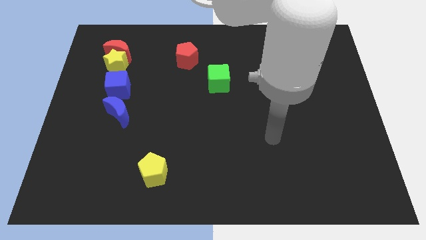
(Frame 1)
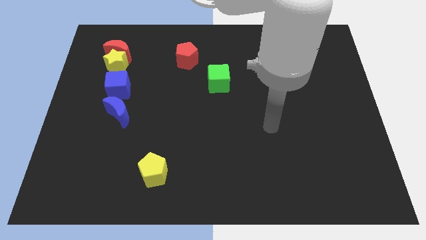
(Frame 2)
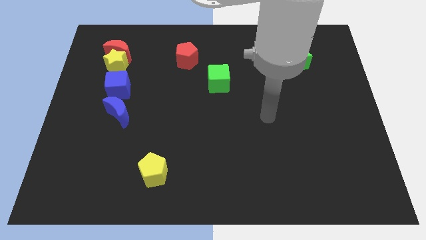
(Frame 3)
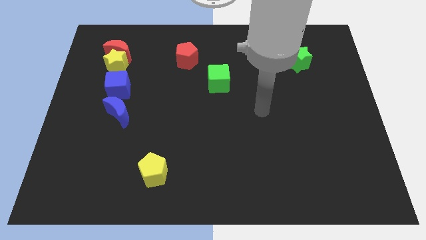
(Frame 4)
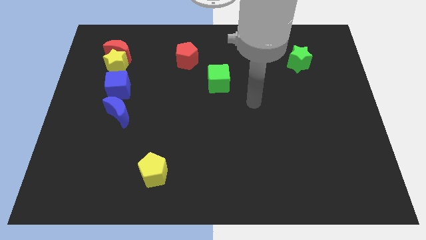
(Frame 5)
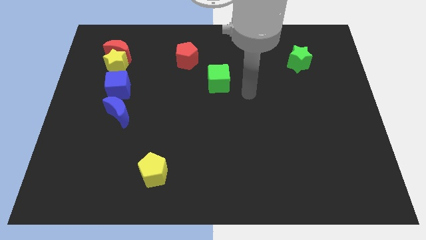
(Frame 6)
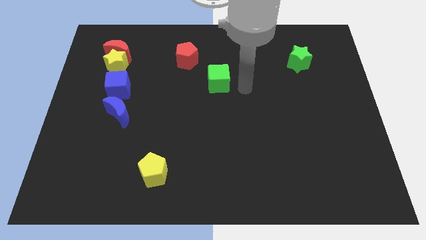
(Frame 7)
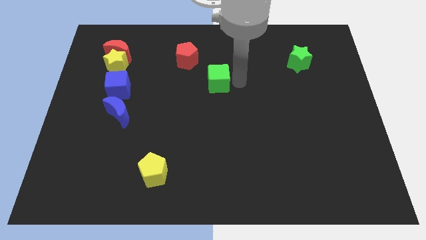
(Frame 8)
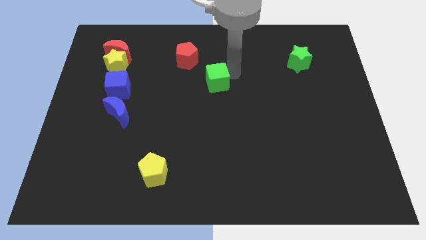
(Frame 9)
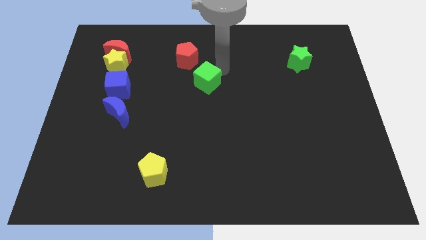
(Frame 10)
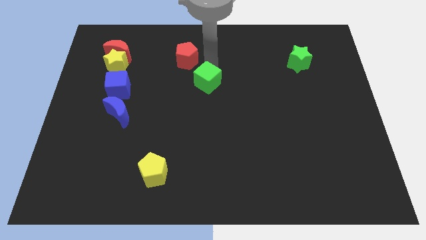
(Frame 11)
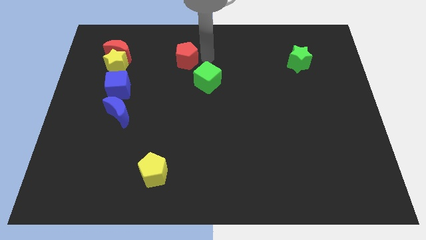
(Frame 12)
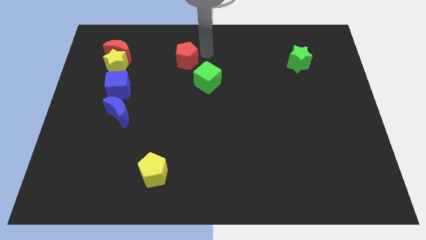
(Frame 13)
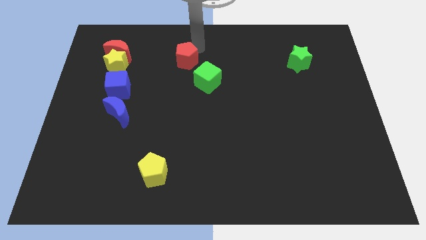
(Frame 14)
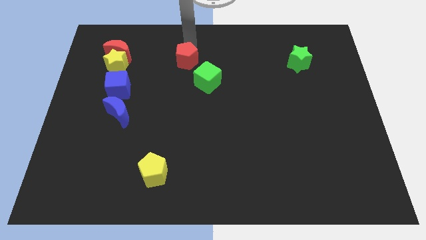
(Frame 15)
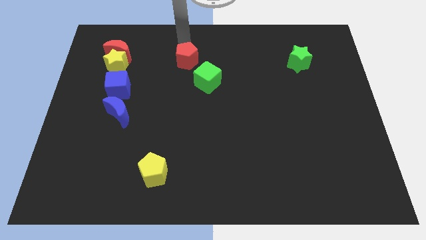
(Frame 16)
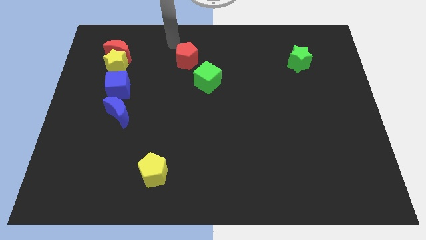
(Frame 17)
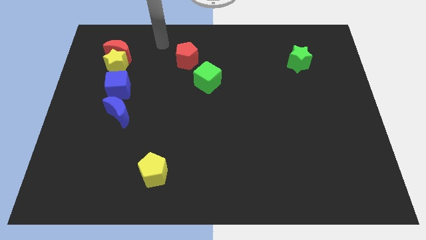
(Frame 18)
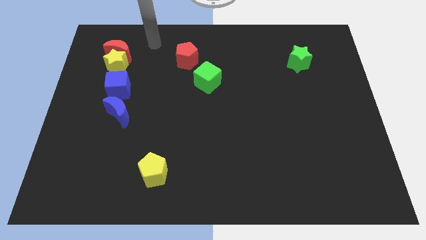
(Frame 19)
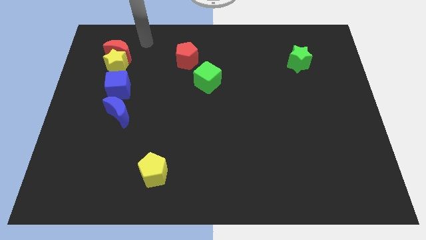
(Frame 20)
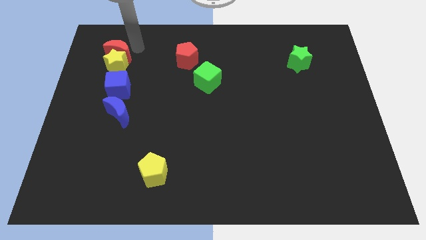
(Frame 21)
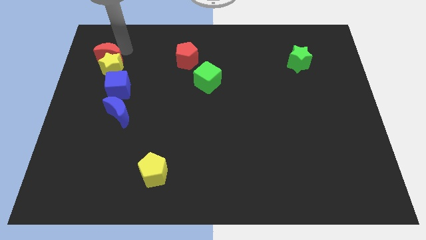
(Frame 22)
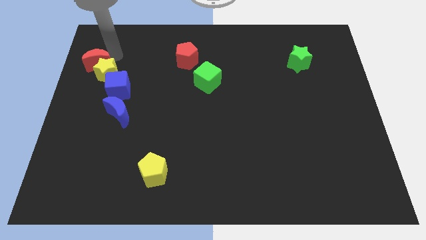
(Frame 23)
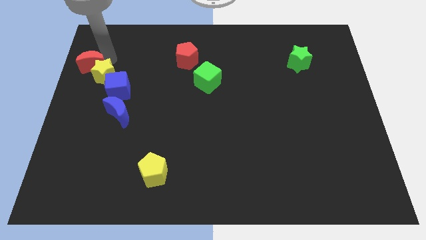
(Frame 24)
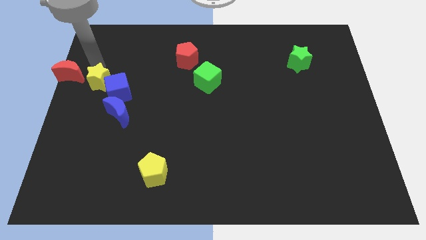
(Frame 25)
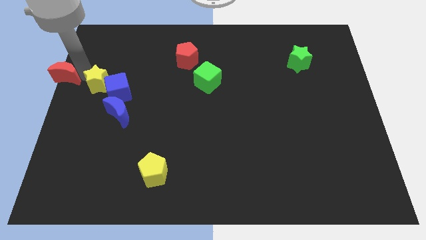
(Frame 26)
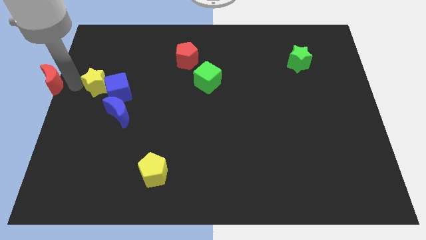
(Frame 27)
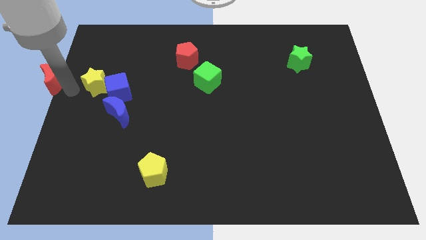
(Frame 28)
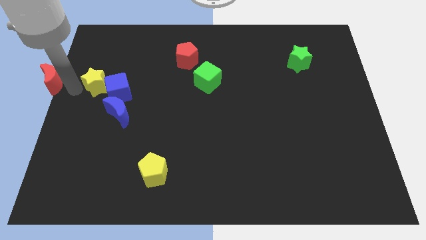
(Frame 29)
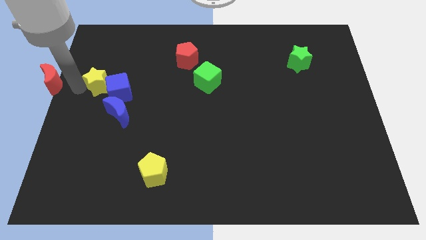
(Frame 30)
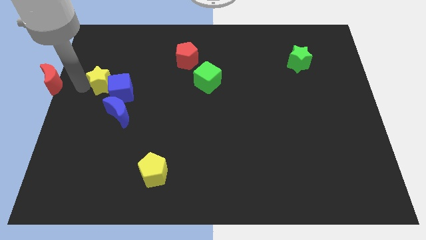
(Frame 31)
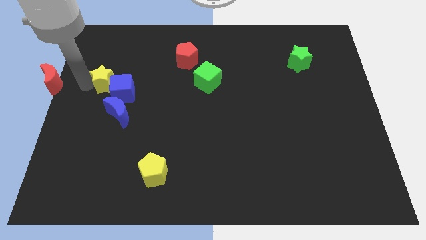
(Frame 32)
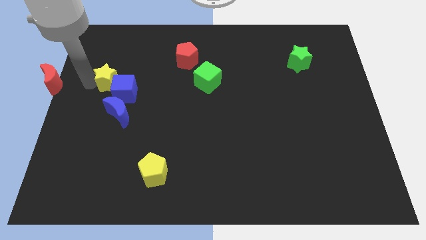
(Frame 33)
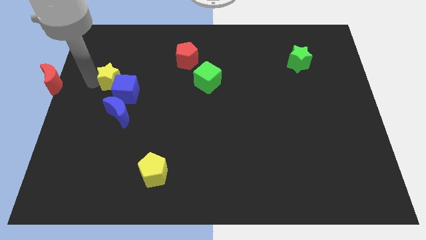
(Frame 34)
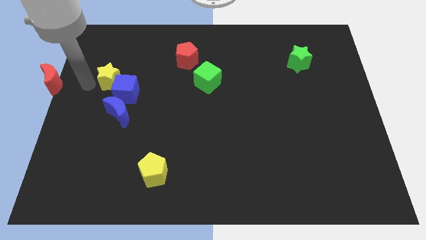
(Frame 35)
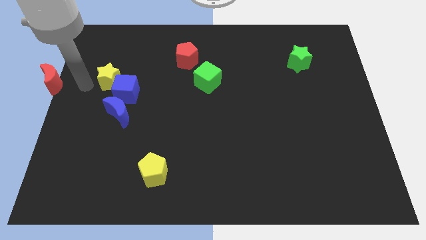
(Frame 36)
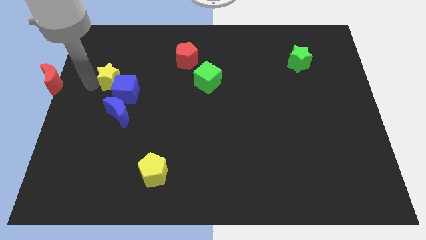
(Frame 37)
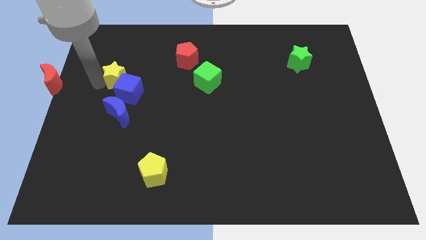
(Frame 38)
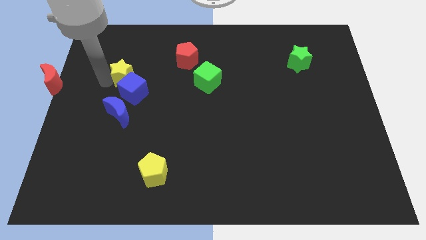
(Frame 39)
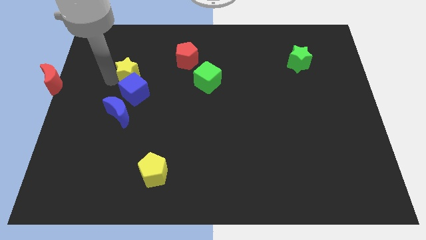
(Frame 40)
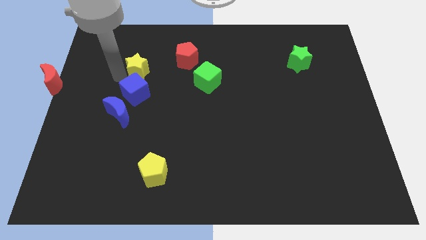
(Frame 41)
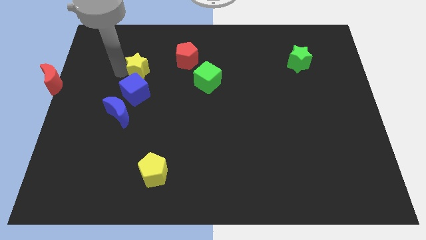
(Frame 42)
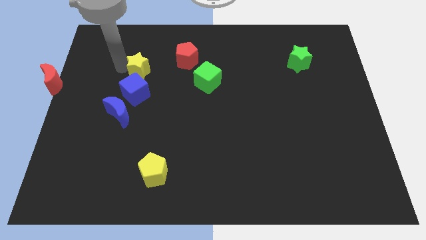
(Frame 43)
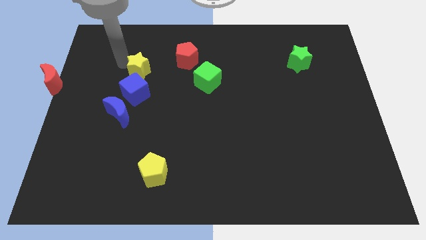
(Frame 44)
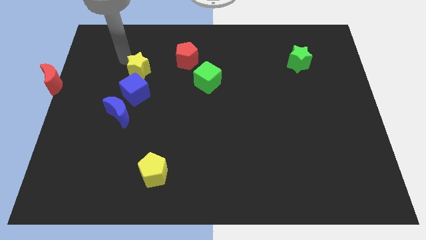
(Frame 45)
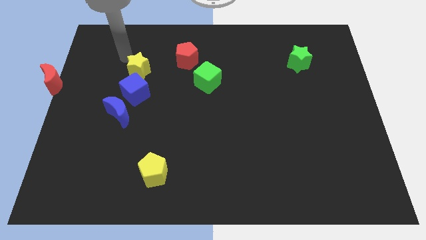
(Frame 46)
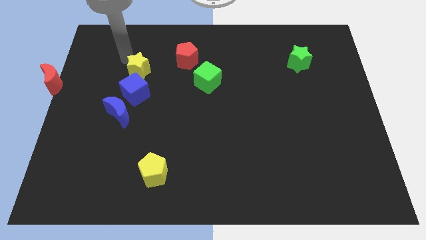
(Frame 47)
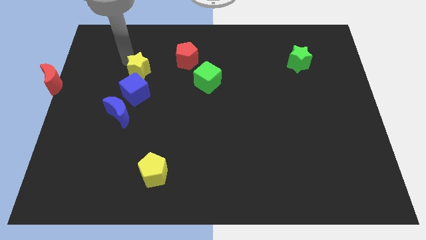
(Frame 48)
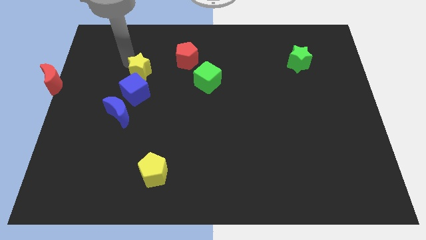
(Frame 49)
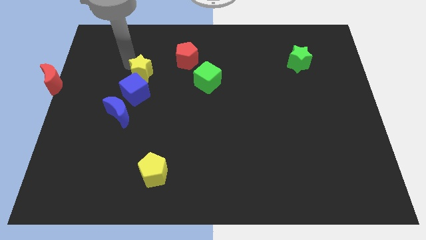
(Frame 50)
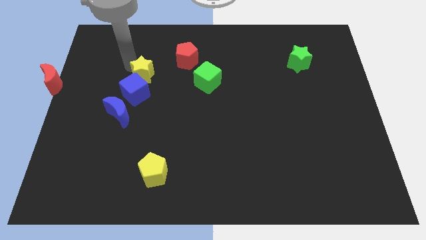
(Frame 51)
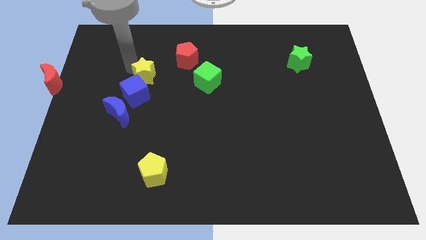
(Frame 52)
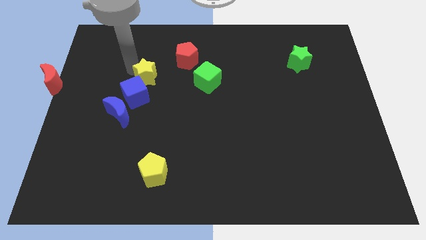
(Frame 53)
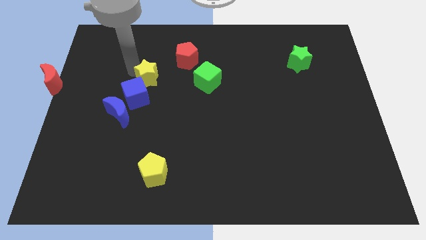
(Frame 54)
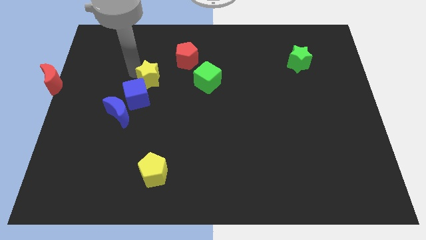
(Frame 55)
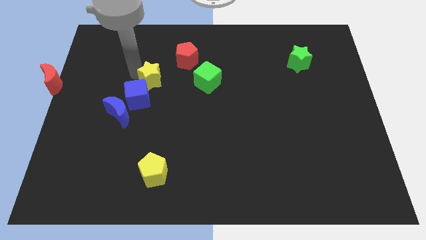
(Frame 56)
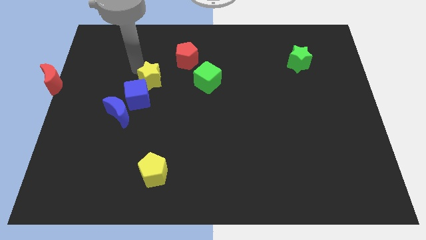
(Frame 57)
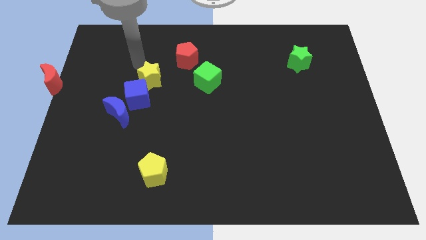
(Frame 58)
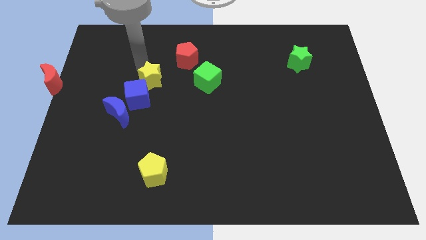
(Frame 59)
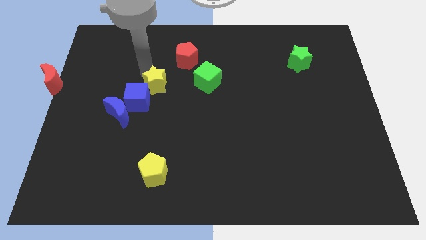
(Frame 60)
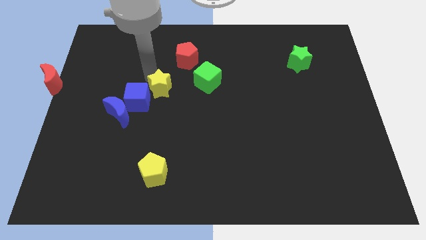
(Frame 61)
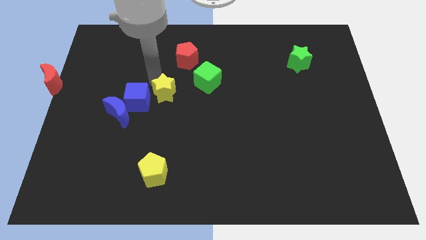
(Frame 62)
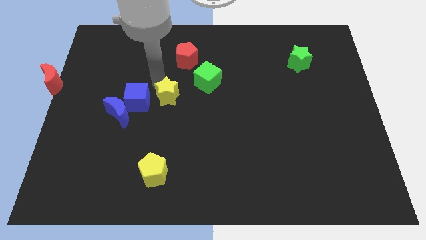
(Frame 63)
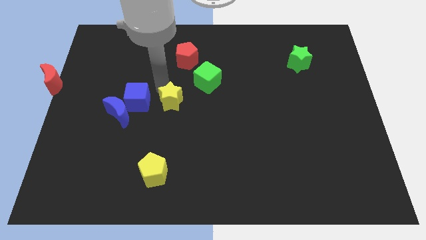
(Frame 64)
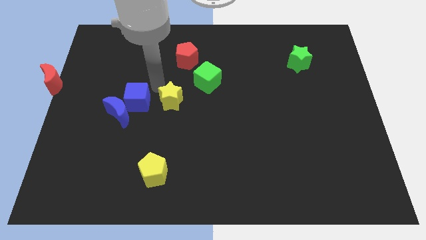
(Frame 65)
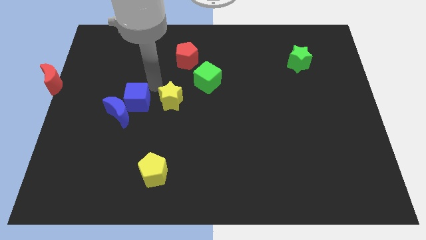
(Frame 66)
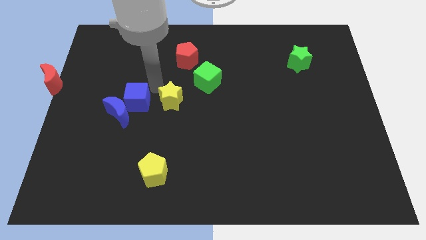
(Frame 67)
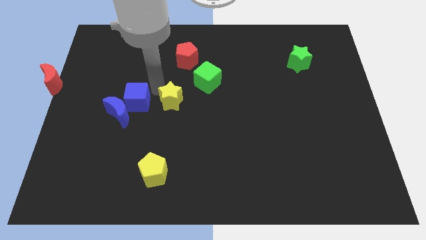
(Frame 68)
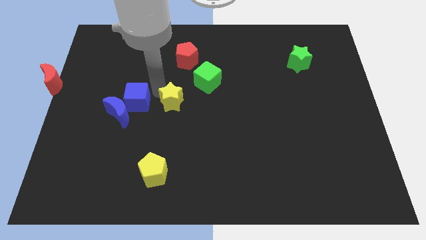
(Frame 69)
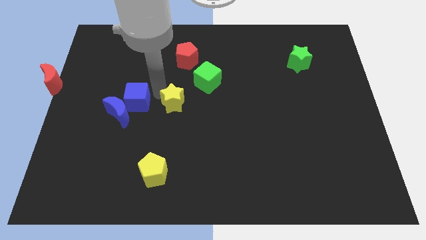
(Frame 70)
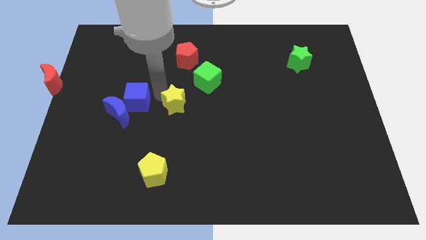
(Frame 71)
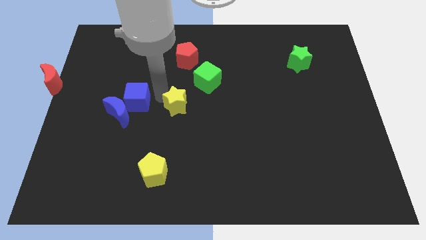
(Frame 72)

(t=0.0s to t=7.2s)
slide the yellow star downwards and right diagonally

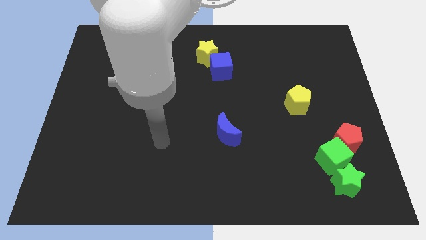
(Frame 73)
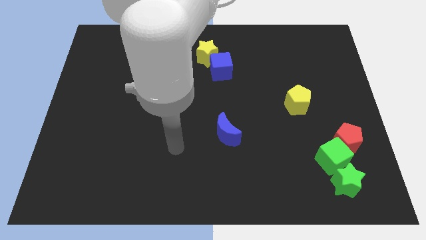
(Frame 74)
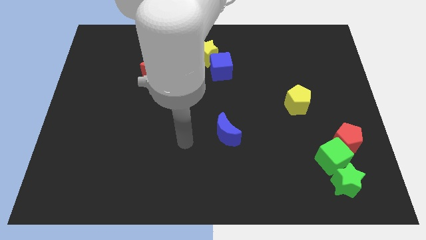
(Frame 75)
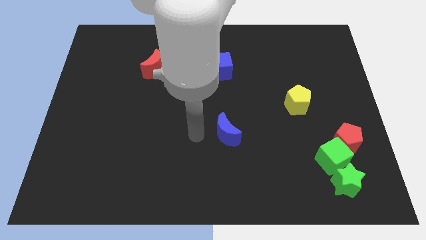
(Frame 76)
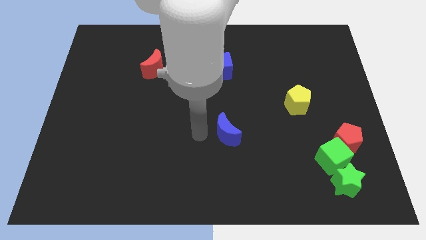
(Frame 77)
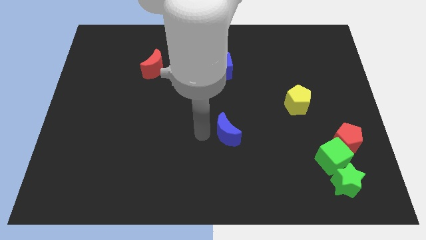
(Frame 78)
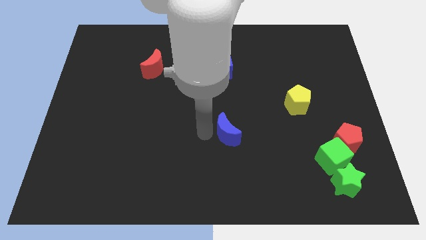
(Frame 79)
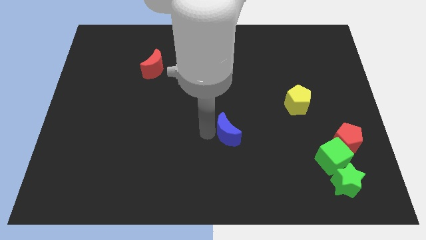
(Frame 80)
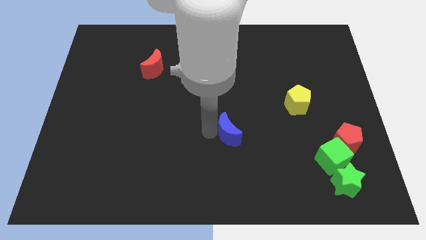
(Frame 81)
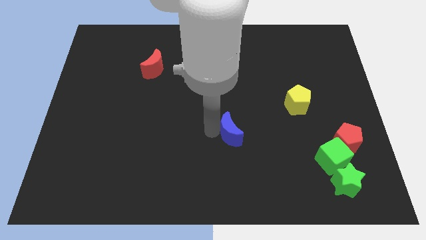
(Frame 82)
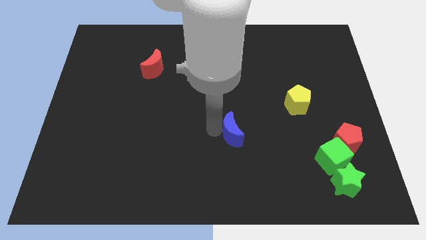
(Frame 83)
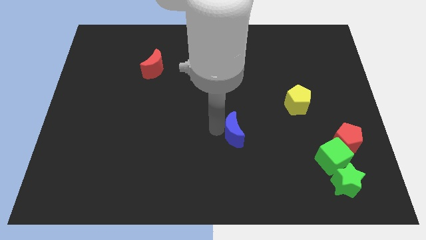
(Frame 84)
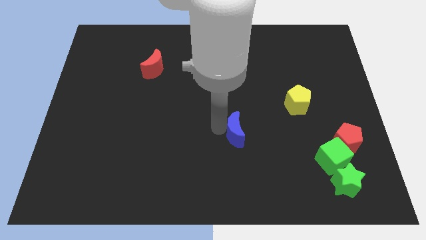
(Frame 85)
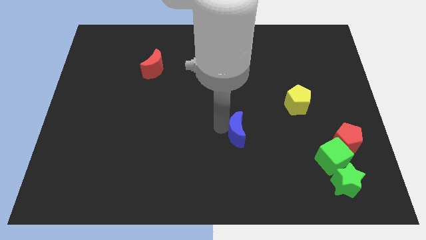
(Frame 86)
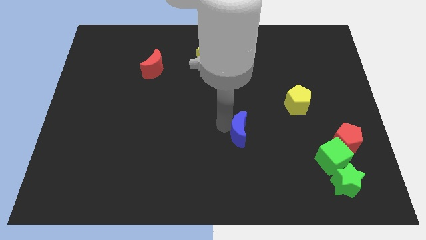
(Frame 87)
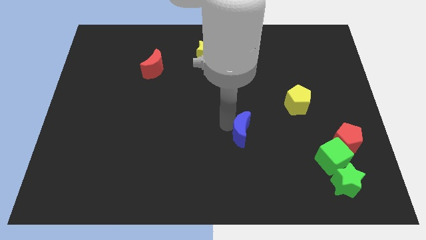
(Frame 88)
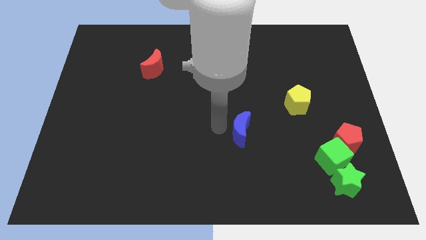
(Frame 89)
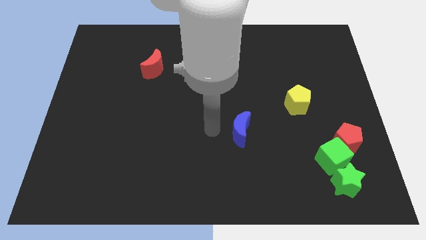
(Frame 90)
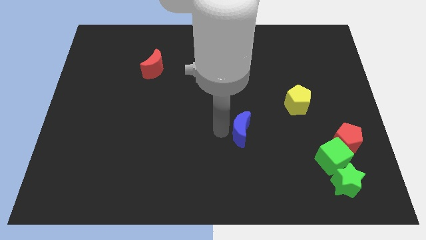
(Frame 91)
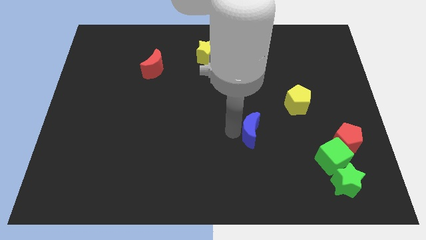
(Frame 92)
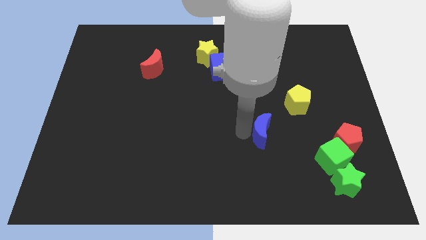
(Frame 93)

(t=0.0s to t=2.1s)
move the blue moon right a little
